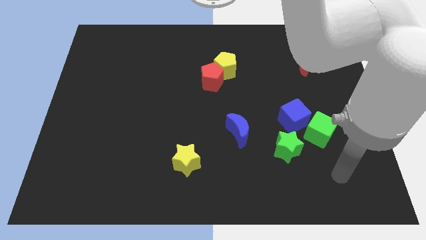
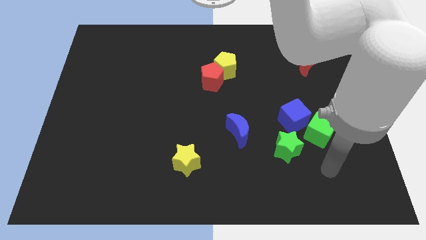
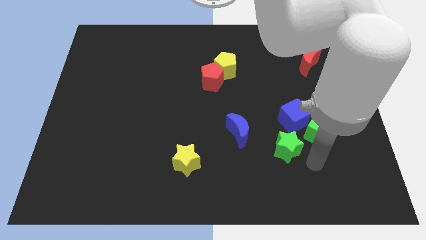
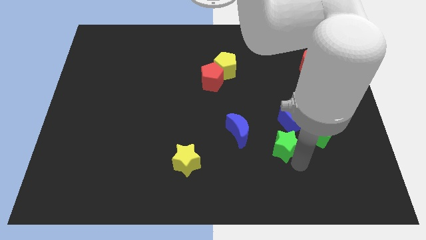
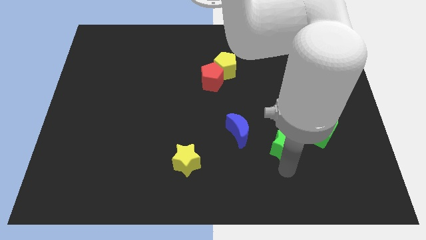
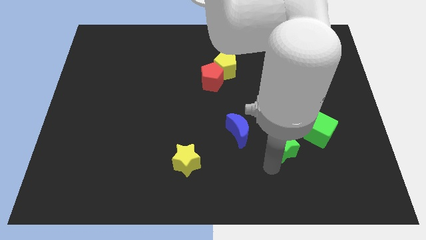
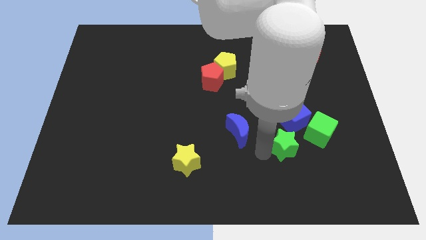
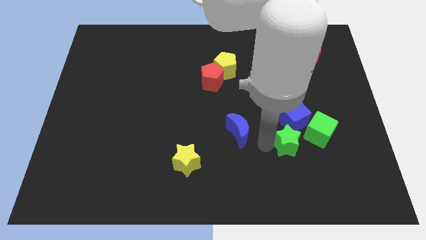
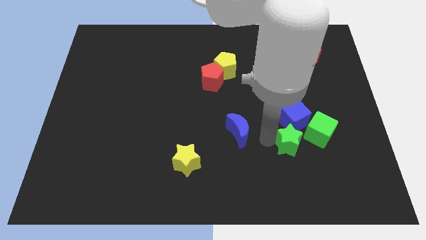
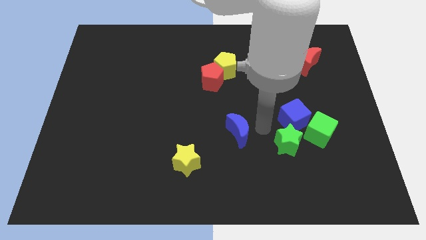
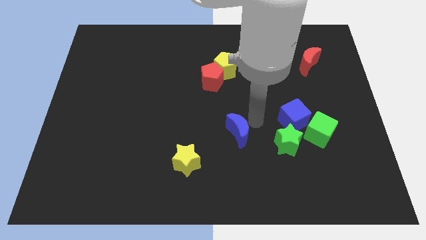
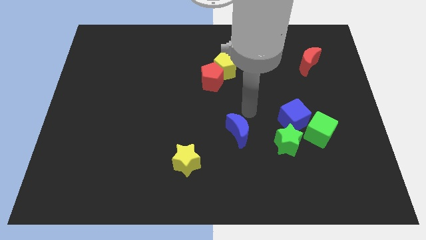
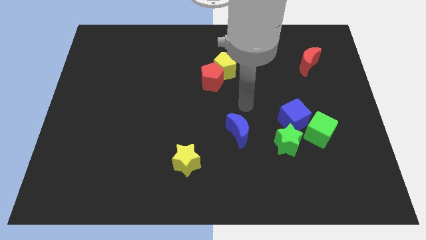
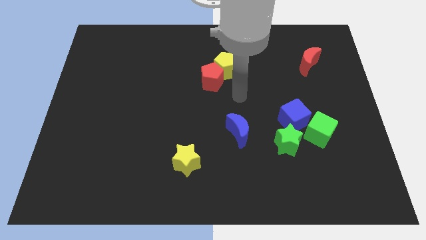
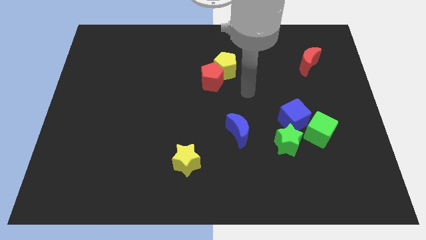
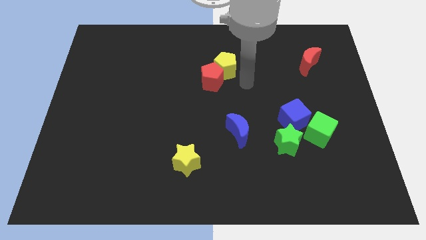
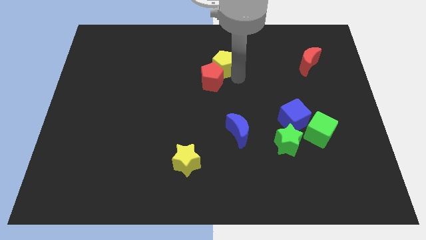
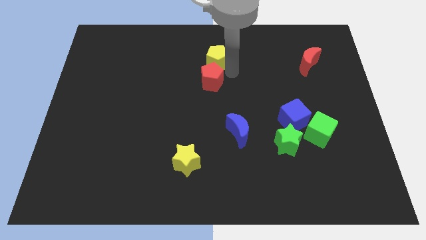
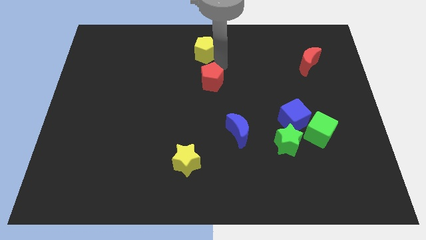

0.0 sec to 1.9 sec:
pull the red pentagon apart from the yellow pentagon

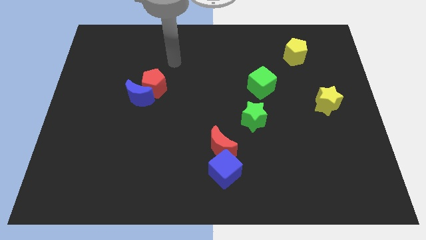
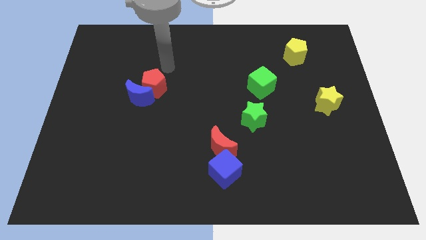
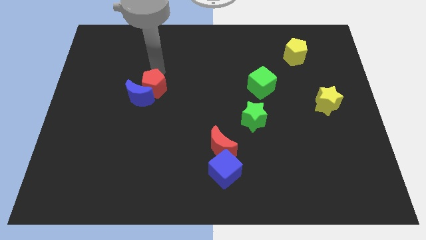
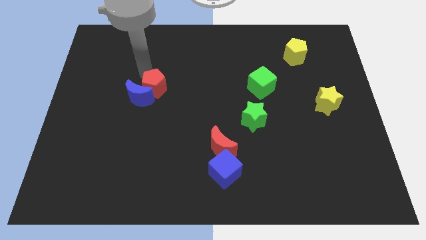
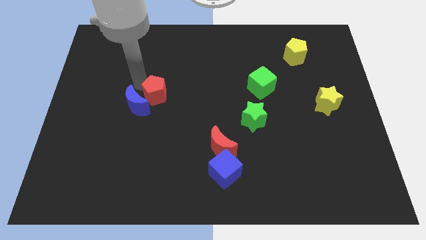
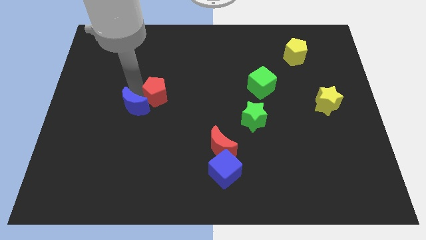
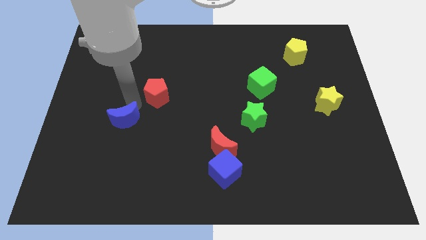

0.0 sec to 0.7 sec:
move the red pentagon away from the blue moon

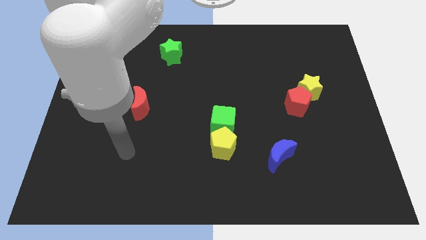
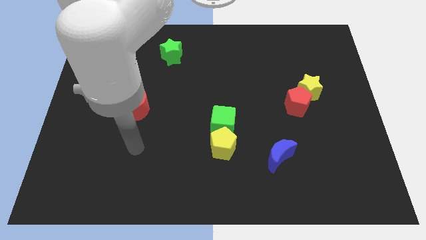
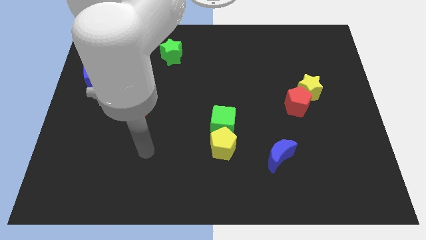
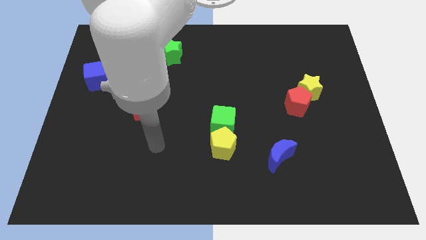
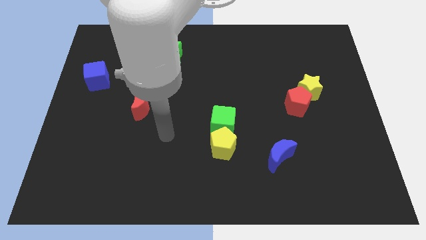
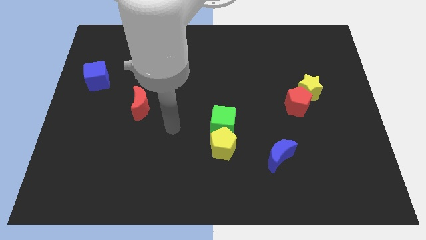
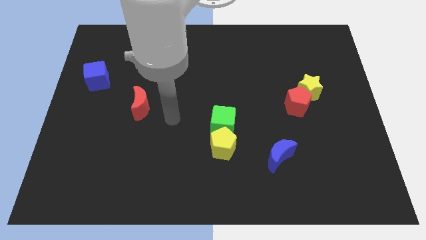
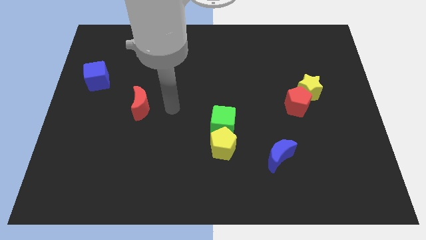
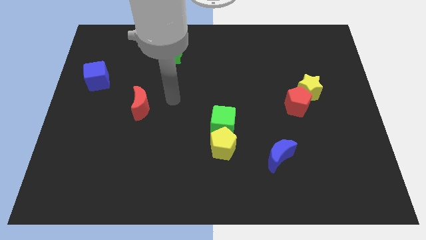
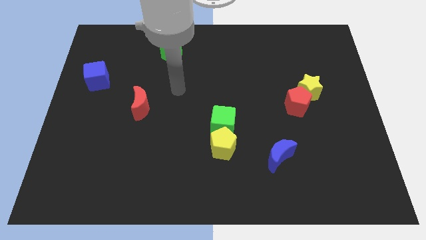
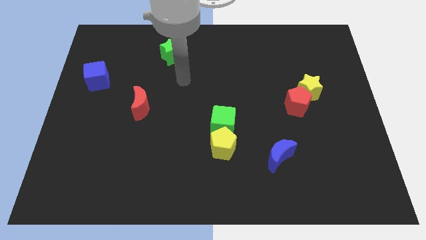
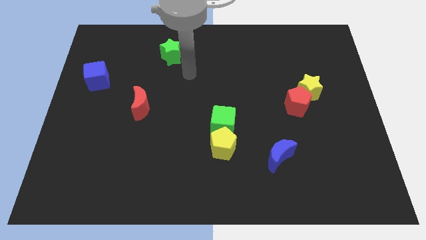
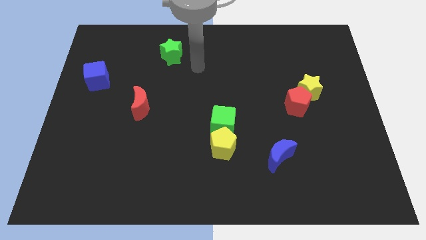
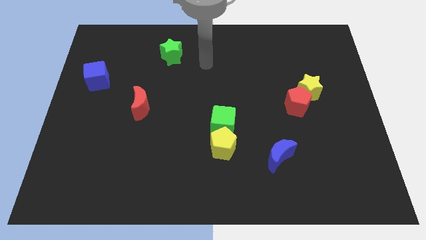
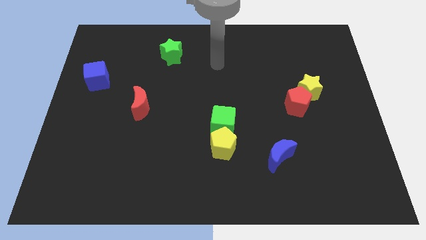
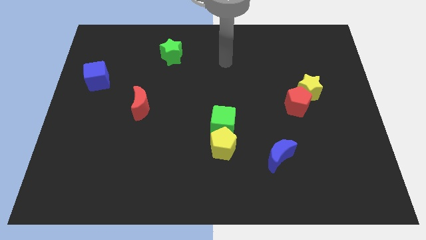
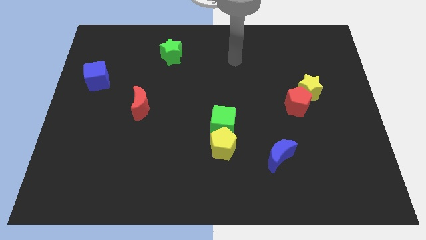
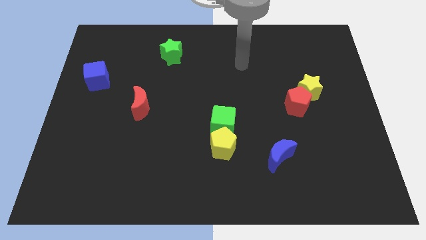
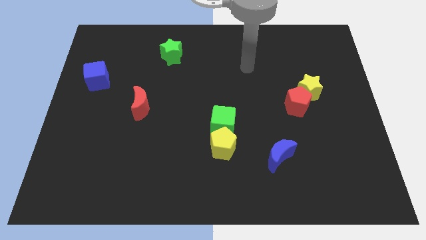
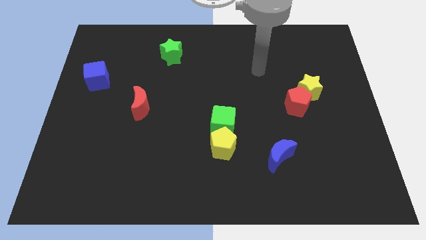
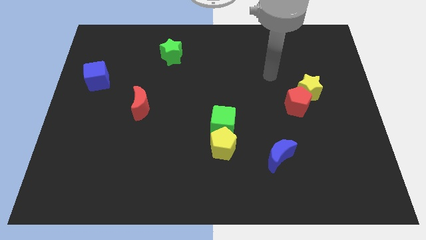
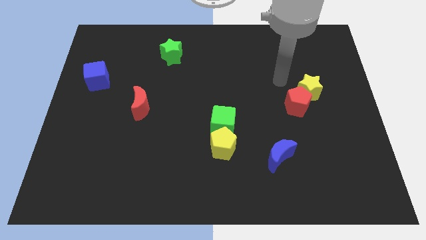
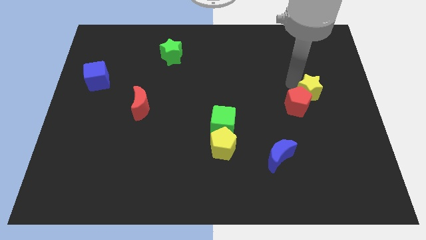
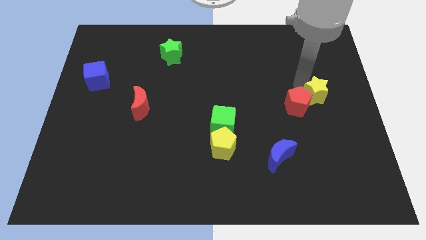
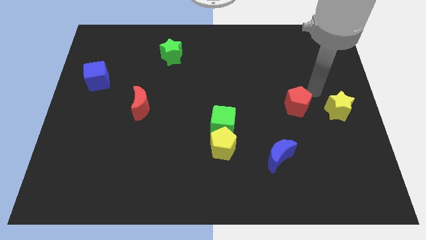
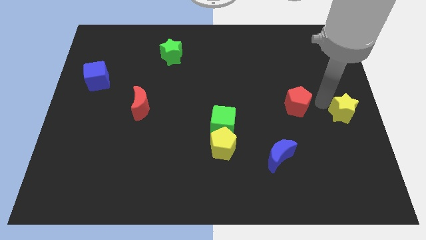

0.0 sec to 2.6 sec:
separate the red pentagon from the yellow star

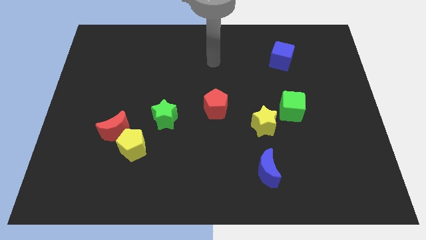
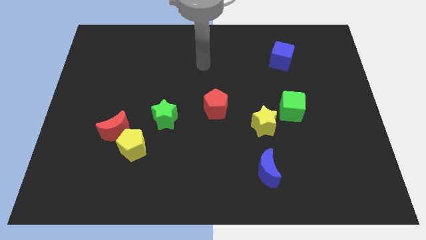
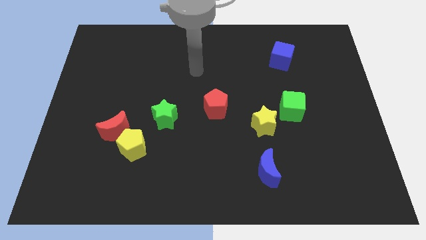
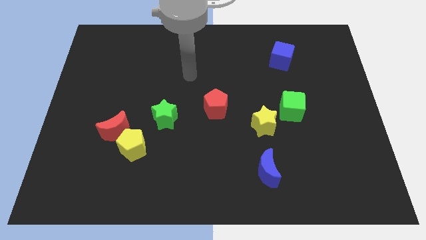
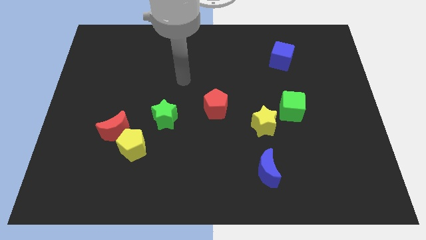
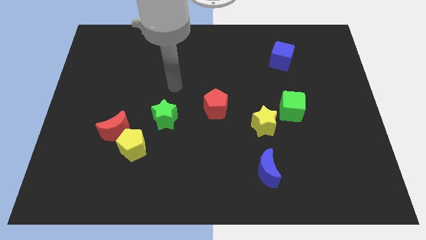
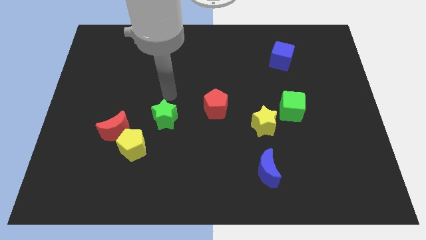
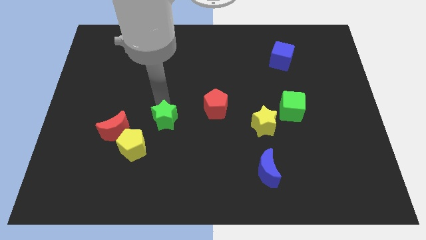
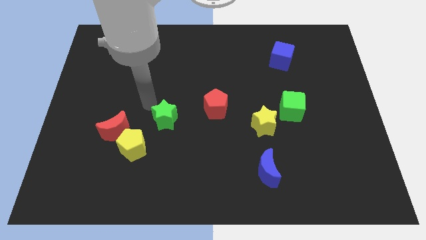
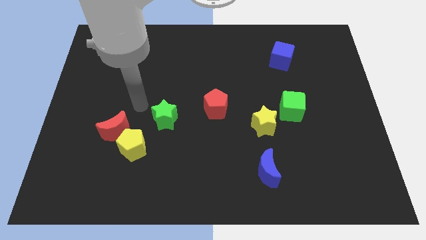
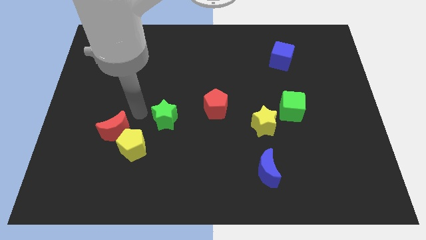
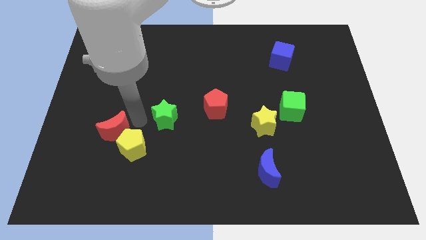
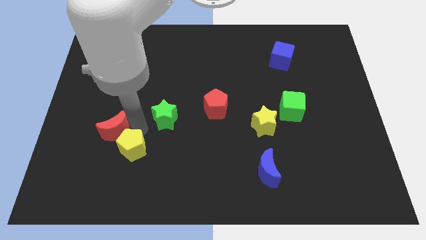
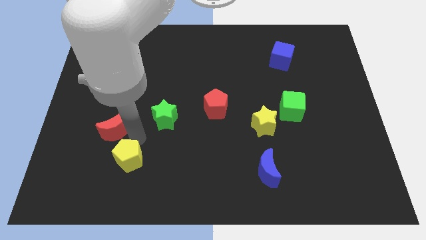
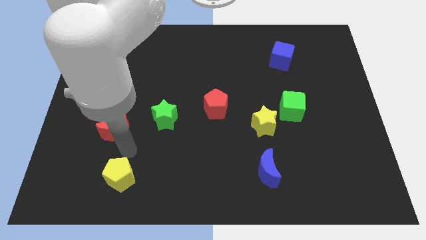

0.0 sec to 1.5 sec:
separate the red moon from the yellow pentagon

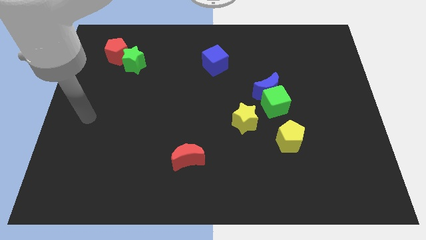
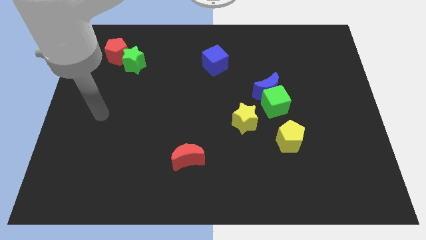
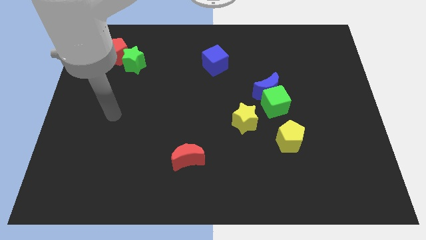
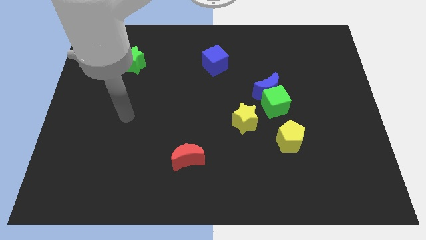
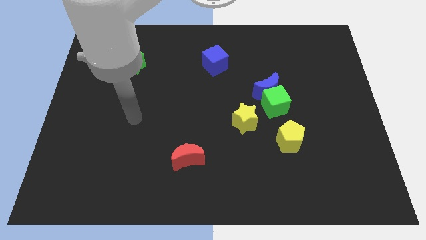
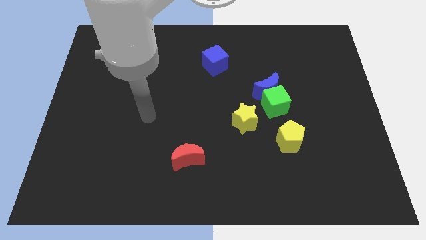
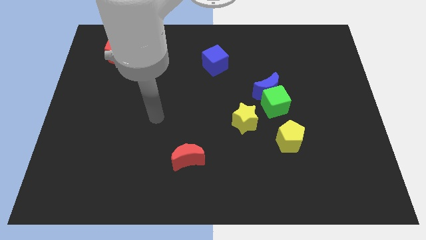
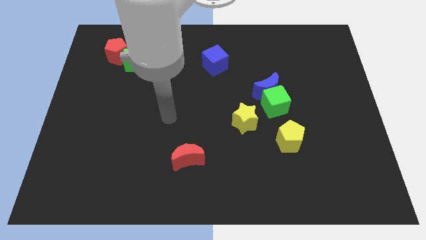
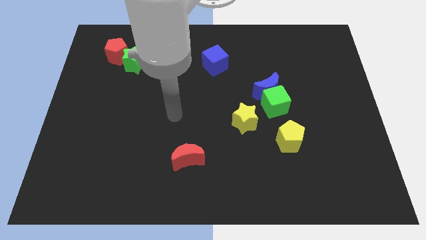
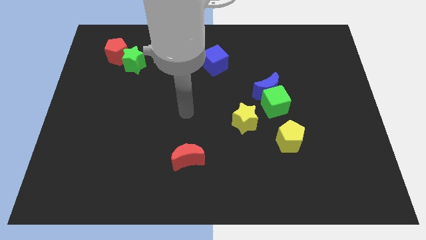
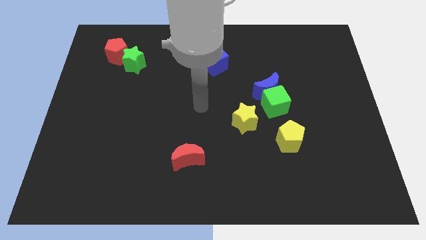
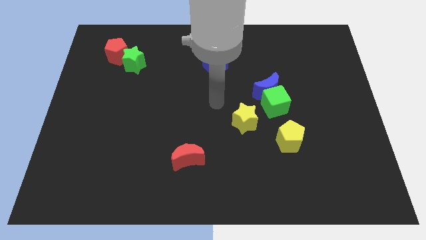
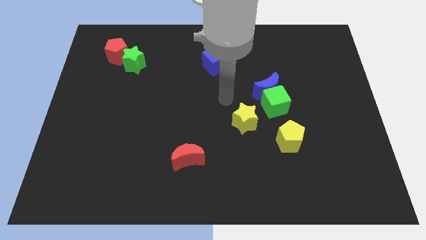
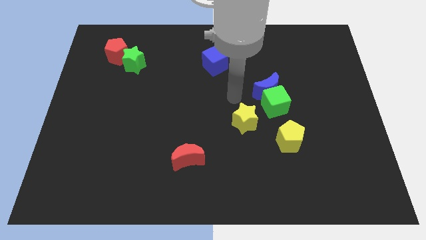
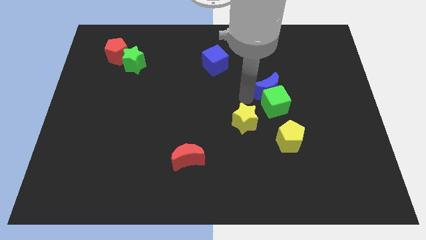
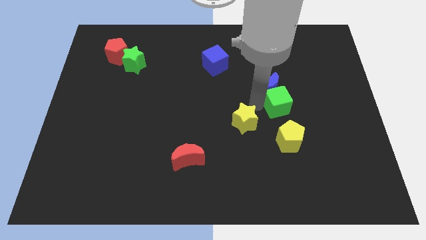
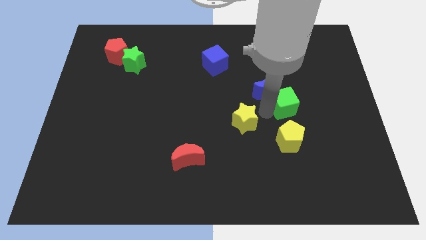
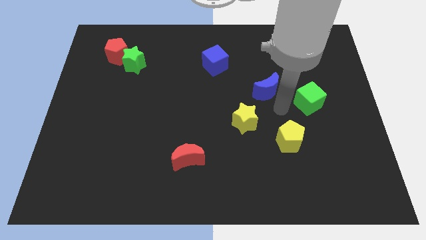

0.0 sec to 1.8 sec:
move the blue moon away from the green cube

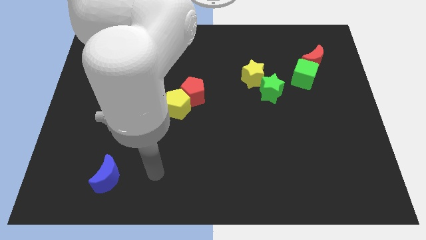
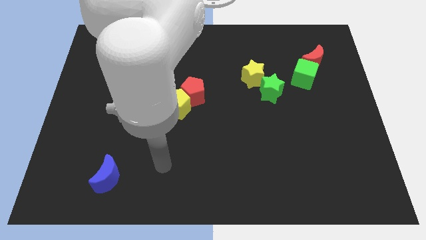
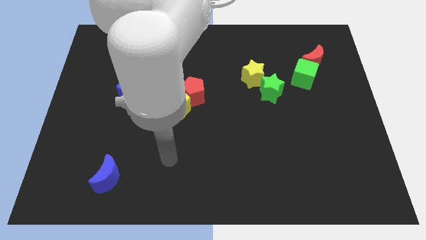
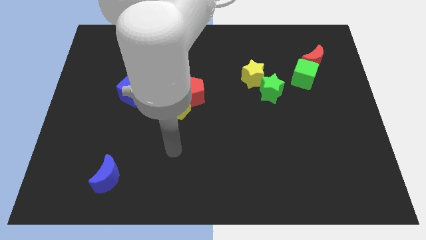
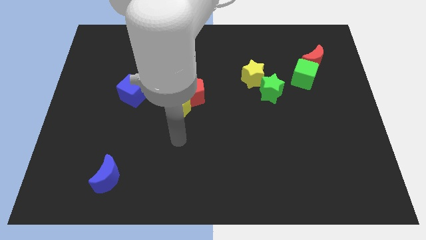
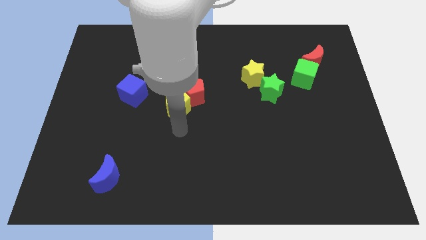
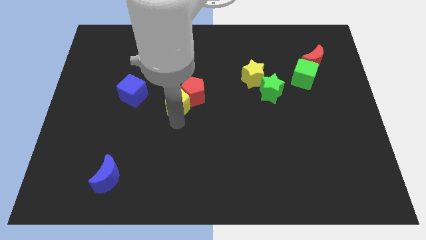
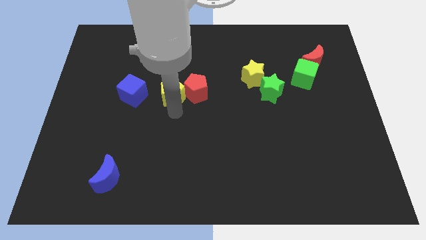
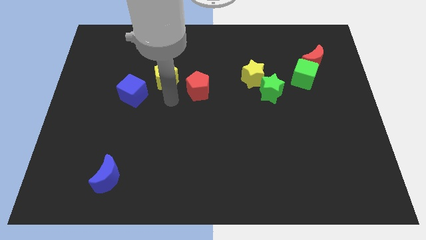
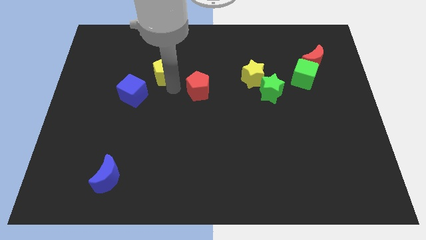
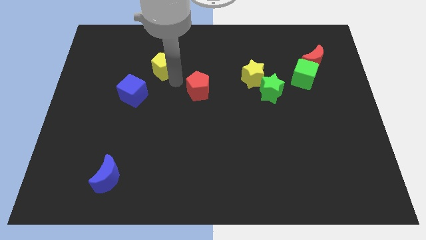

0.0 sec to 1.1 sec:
separate the red pentagon from the yellow pentagon
